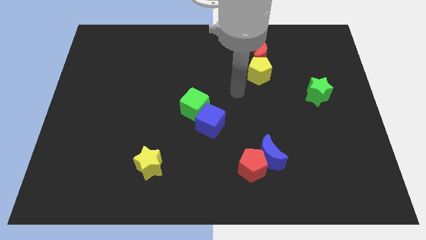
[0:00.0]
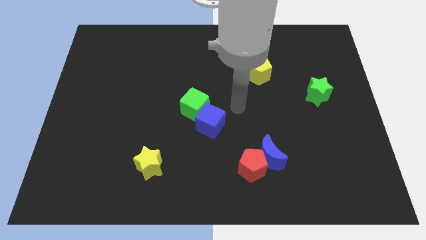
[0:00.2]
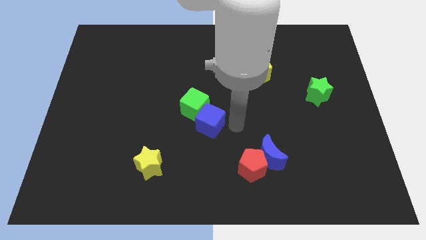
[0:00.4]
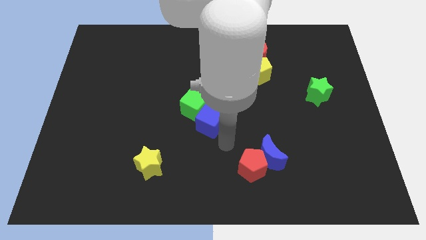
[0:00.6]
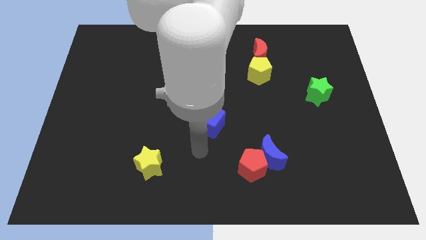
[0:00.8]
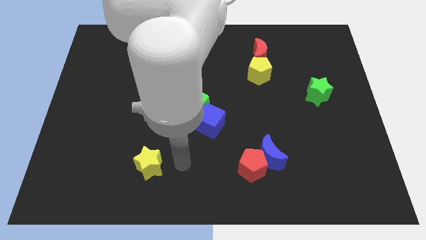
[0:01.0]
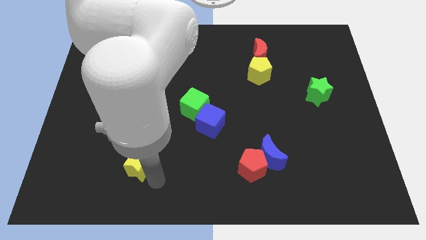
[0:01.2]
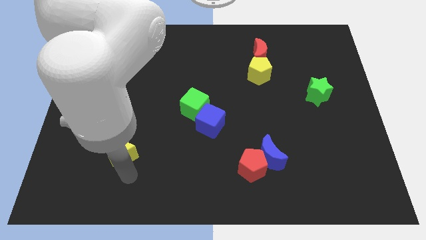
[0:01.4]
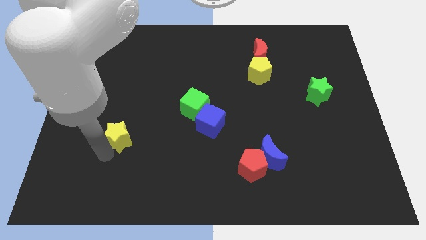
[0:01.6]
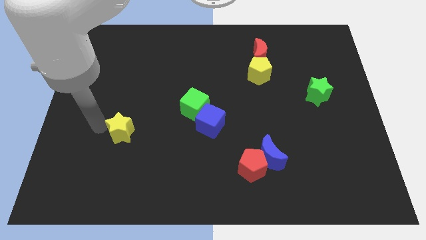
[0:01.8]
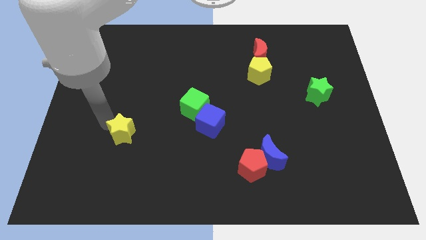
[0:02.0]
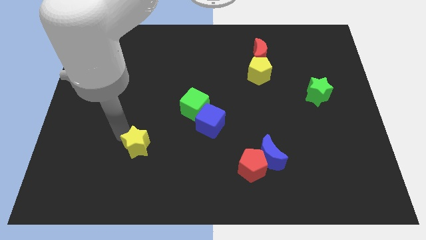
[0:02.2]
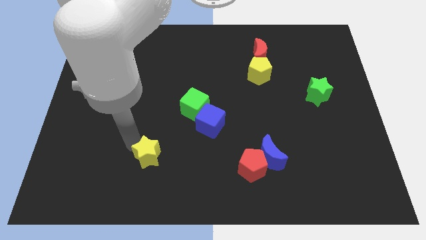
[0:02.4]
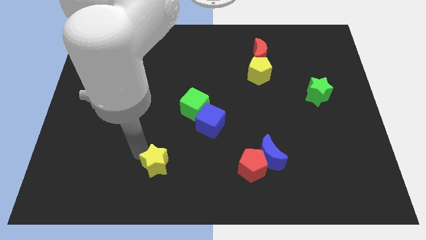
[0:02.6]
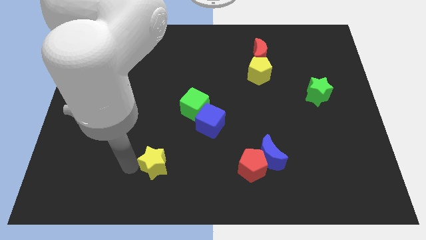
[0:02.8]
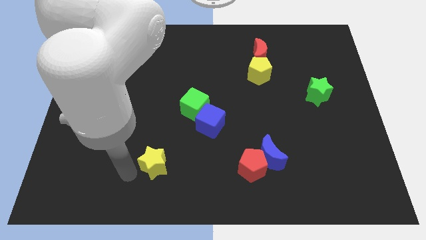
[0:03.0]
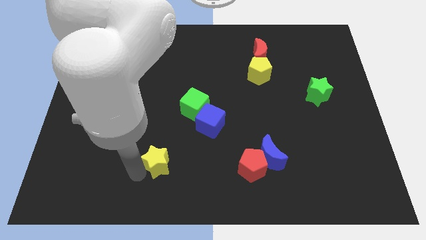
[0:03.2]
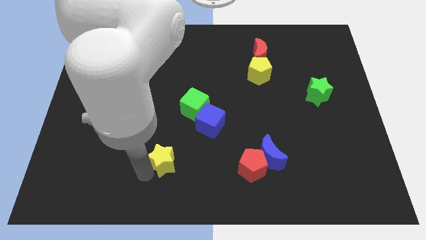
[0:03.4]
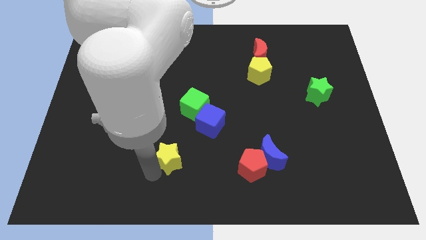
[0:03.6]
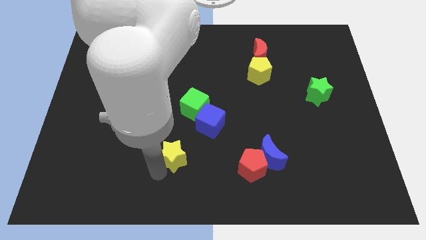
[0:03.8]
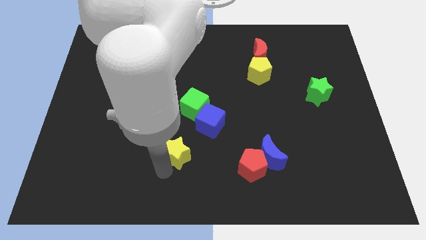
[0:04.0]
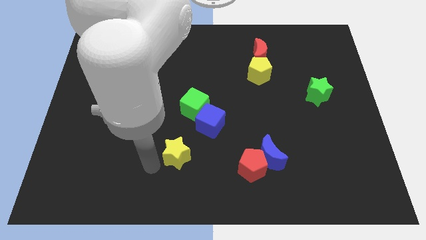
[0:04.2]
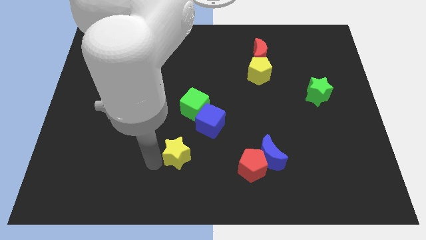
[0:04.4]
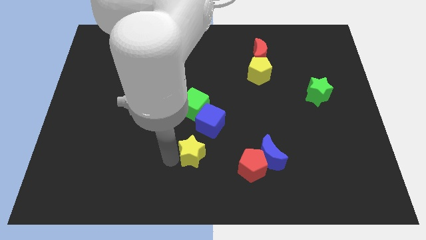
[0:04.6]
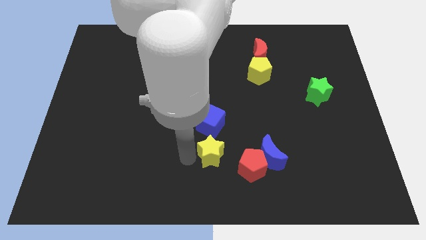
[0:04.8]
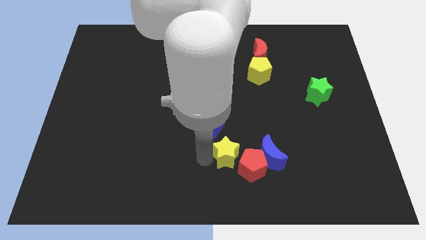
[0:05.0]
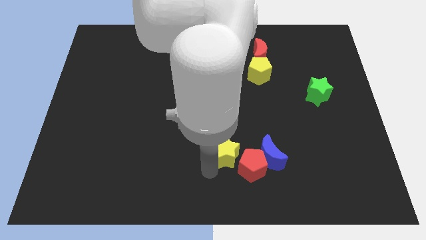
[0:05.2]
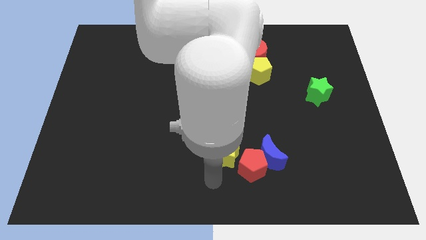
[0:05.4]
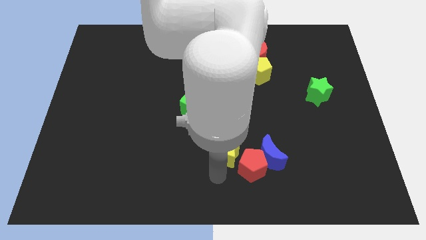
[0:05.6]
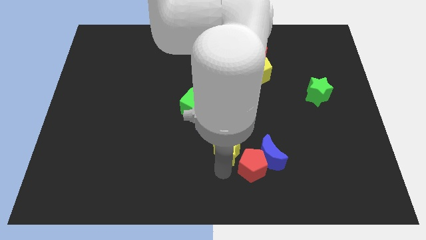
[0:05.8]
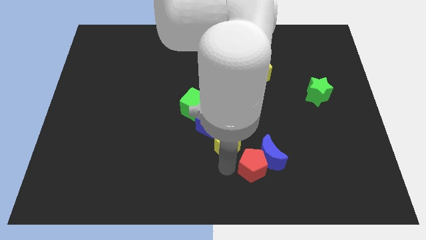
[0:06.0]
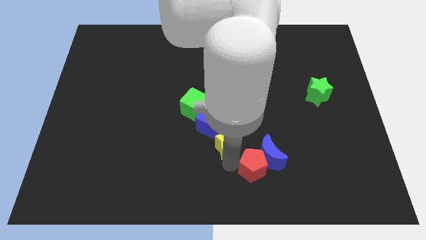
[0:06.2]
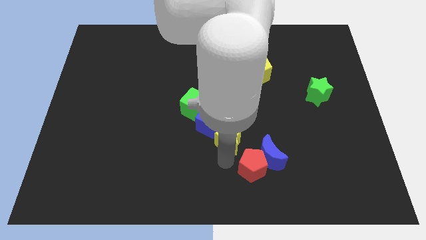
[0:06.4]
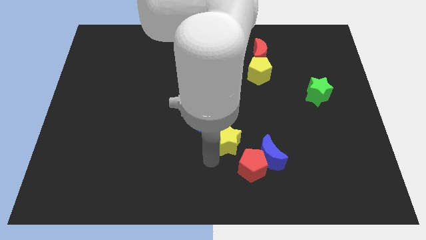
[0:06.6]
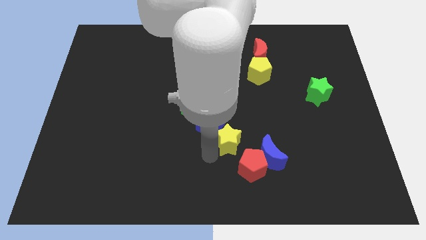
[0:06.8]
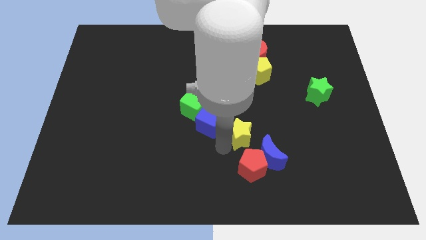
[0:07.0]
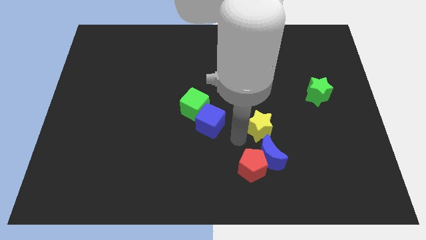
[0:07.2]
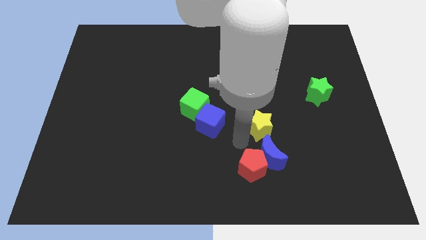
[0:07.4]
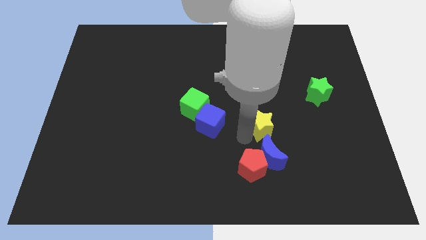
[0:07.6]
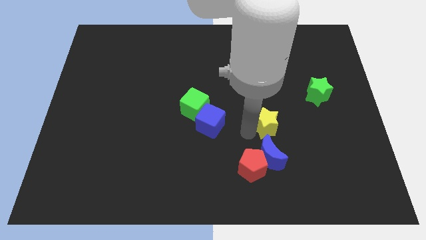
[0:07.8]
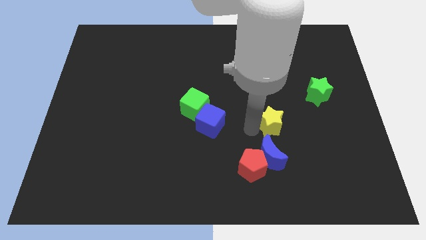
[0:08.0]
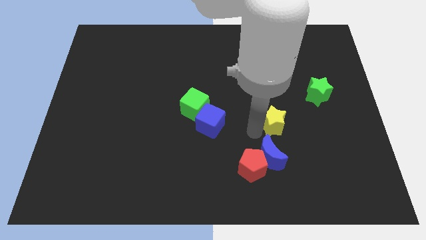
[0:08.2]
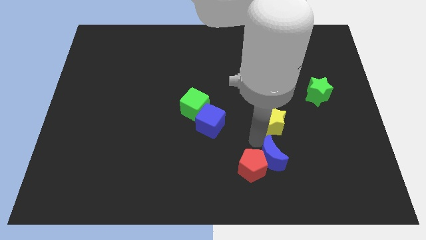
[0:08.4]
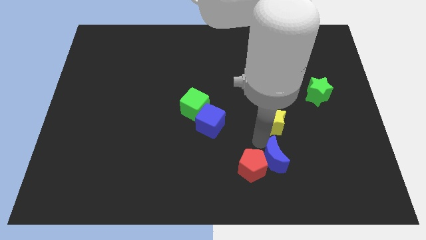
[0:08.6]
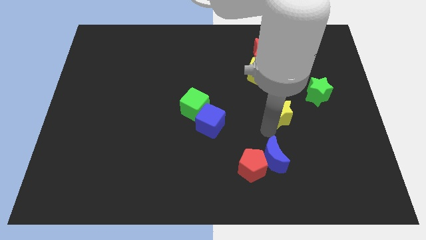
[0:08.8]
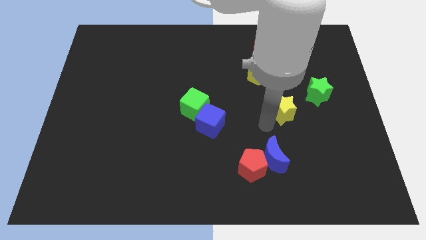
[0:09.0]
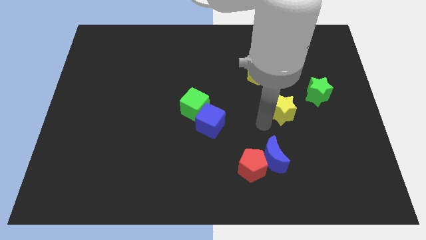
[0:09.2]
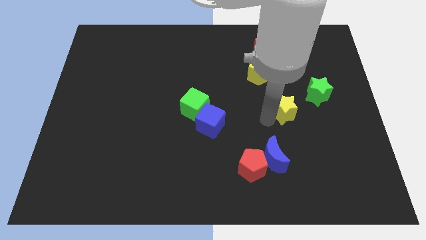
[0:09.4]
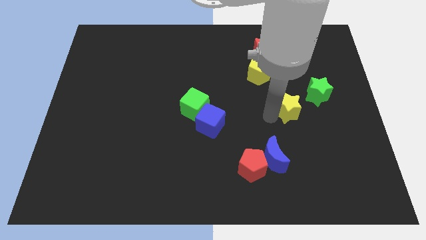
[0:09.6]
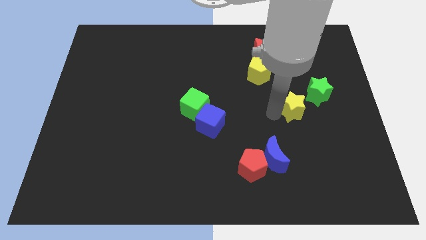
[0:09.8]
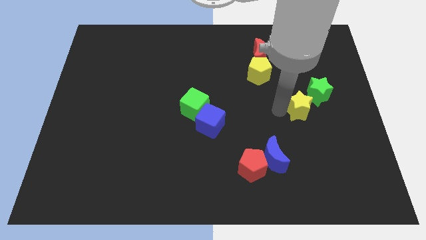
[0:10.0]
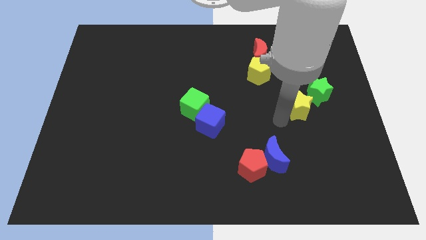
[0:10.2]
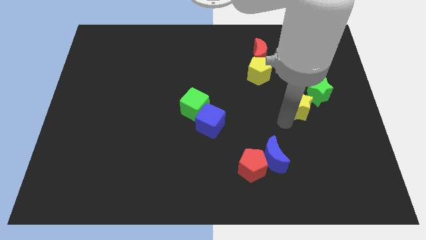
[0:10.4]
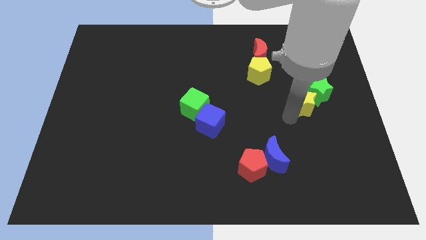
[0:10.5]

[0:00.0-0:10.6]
push the yellow star next to the green star

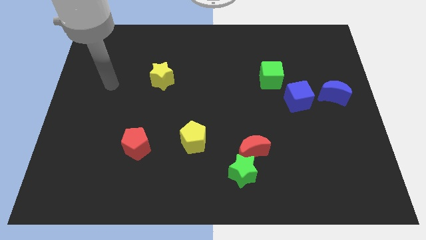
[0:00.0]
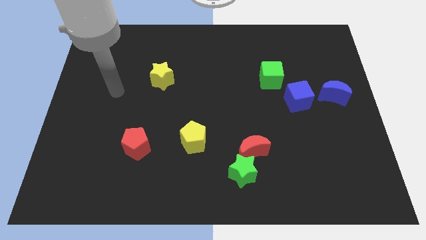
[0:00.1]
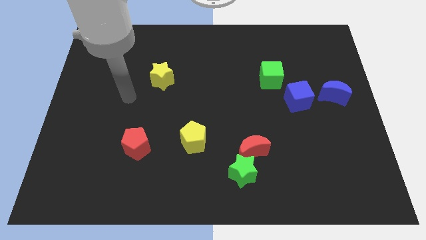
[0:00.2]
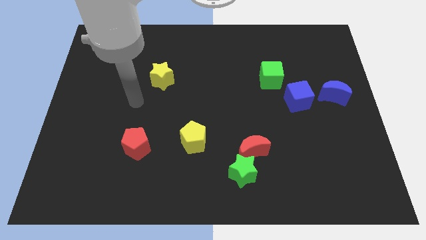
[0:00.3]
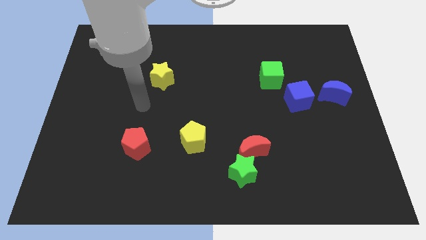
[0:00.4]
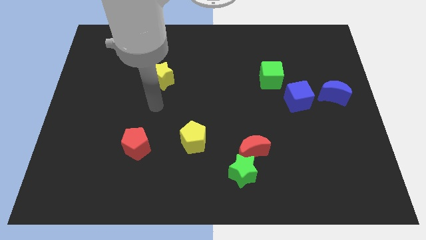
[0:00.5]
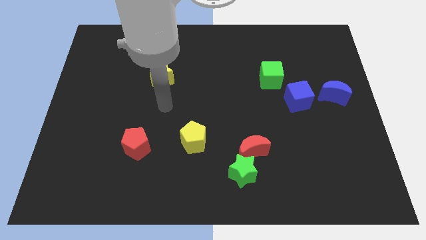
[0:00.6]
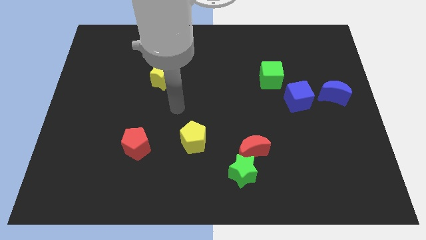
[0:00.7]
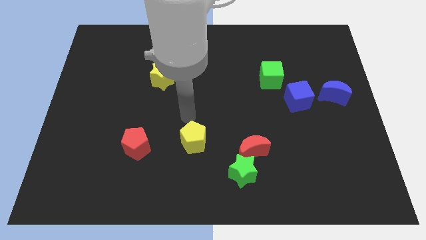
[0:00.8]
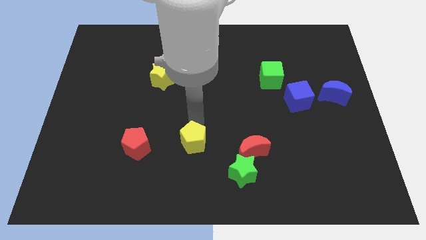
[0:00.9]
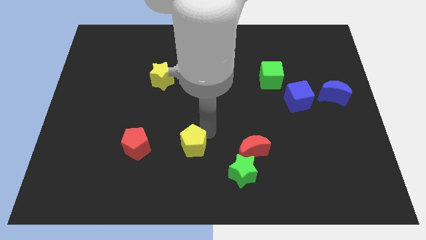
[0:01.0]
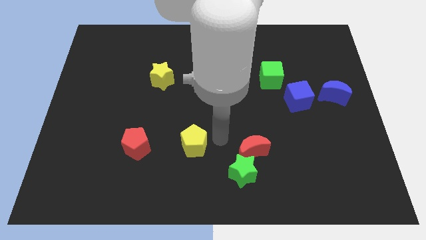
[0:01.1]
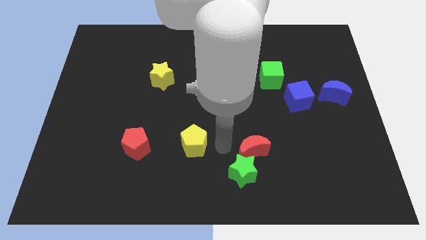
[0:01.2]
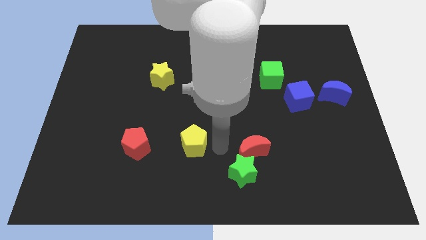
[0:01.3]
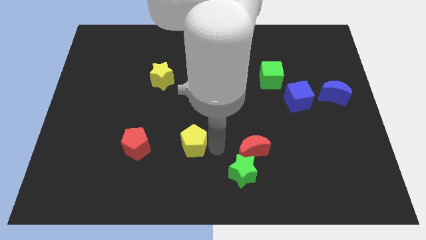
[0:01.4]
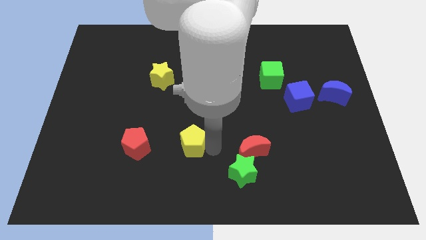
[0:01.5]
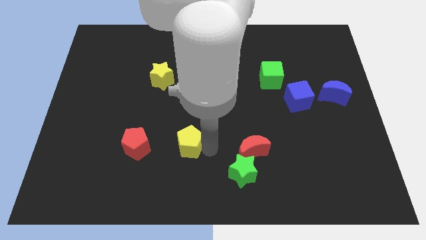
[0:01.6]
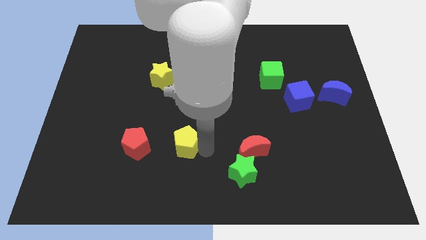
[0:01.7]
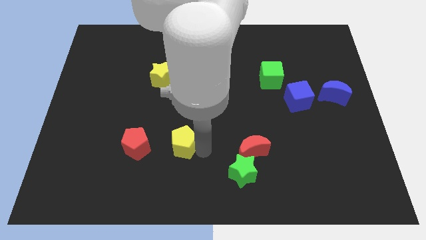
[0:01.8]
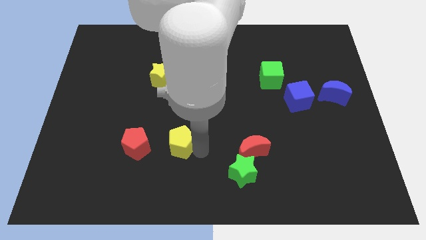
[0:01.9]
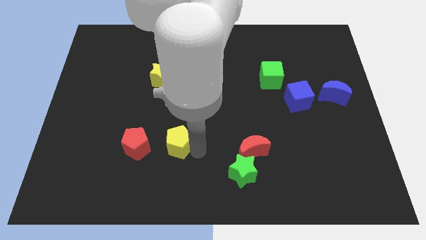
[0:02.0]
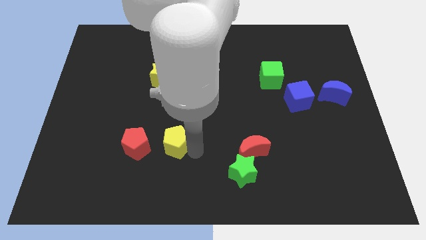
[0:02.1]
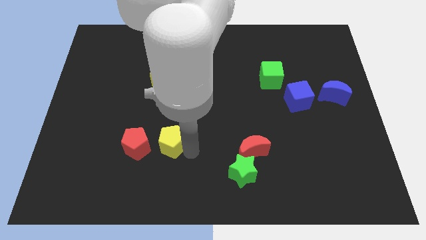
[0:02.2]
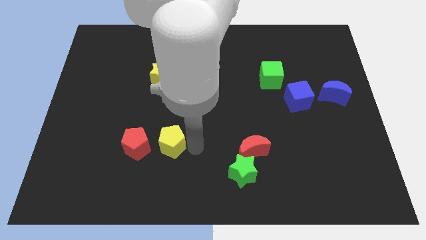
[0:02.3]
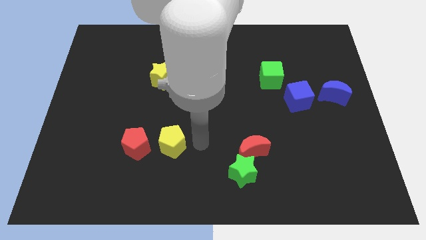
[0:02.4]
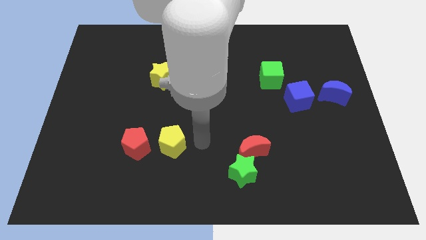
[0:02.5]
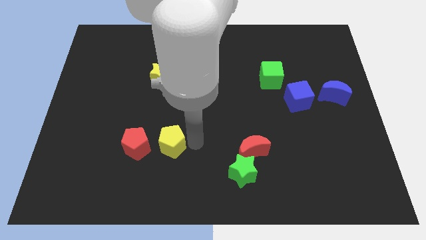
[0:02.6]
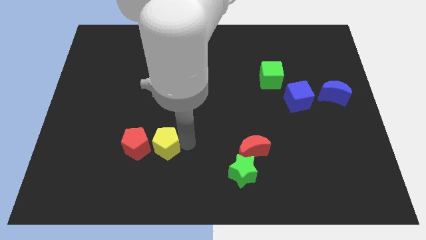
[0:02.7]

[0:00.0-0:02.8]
push the yellow pentagon to the red pentagon
